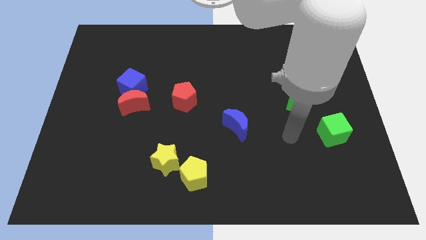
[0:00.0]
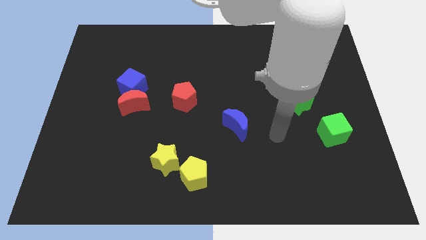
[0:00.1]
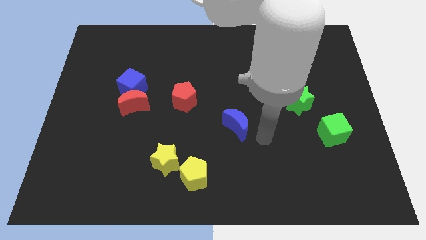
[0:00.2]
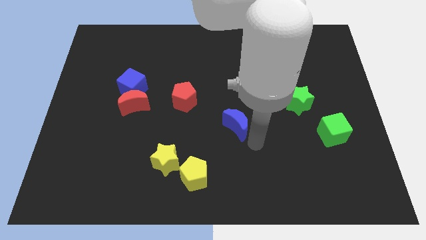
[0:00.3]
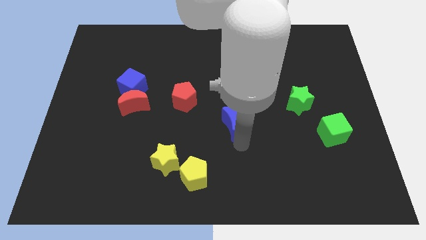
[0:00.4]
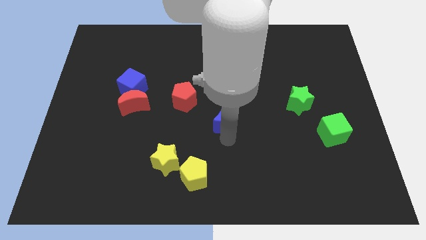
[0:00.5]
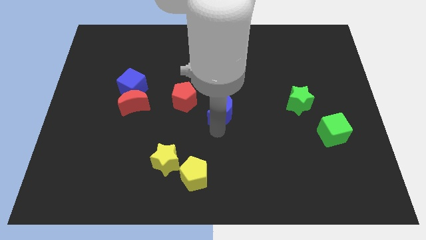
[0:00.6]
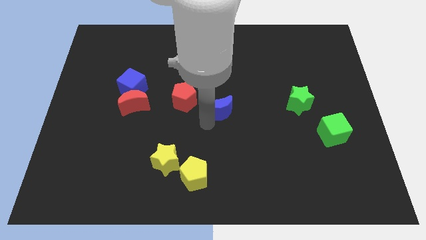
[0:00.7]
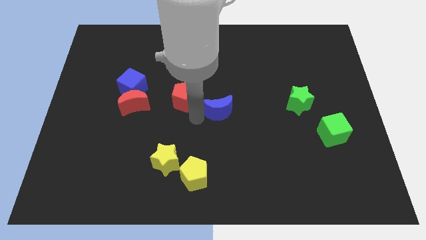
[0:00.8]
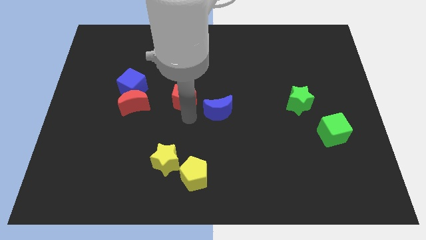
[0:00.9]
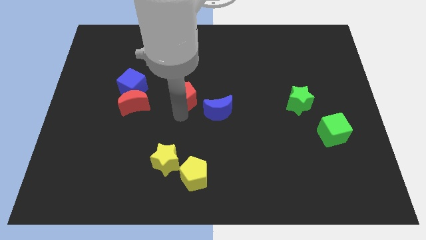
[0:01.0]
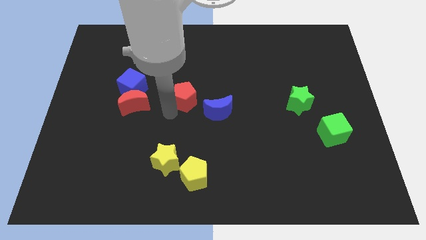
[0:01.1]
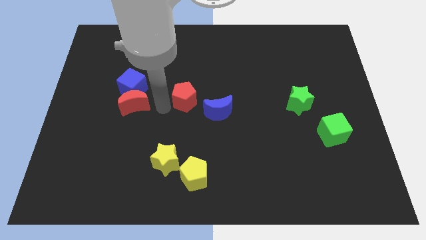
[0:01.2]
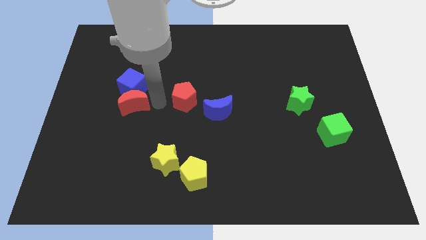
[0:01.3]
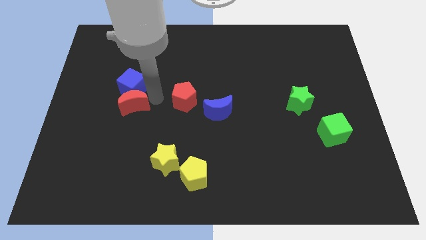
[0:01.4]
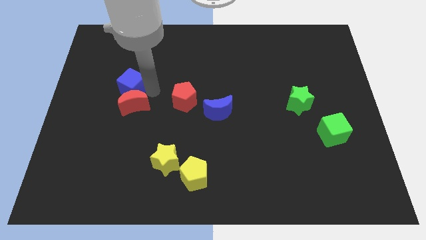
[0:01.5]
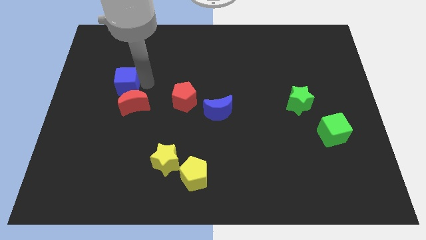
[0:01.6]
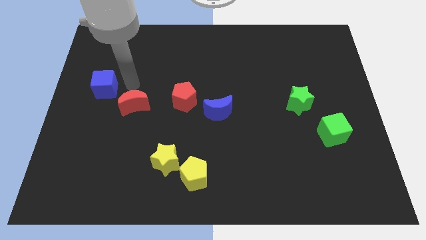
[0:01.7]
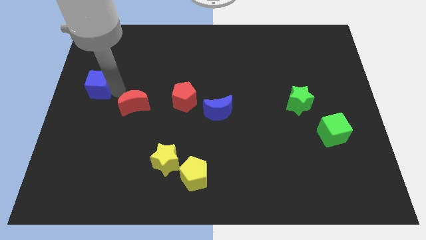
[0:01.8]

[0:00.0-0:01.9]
separate the red moon from the blue cube

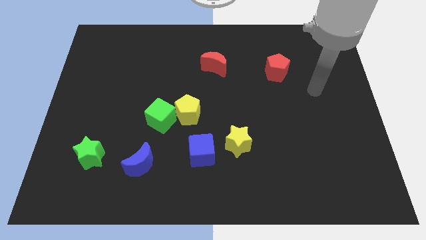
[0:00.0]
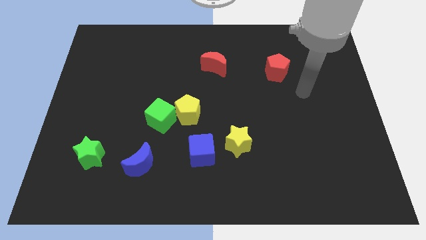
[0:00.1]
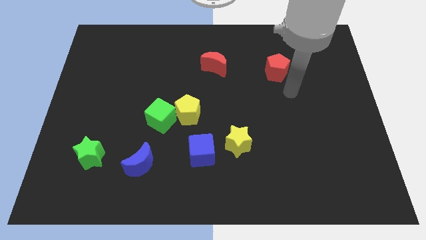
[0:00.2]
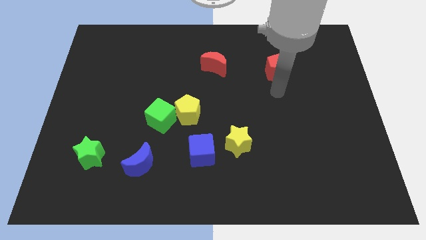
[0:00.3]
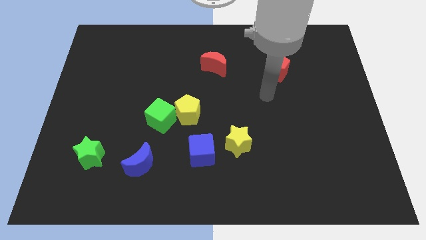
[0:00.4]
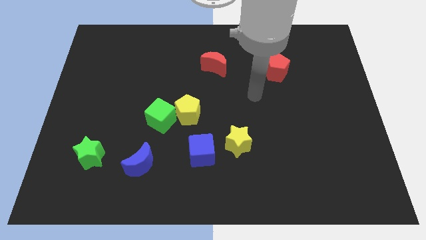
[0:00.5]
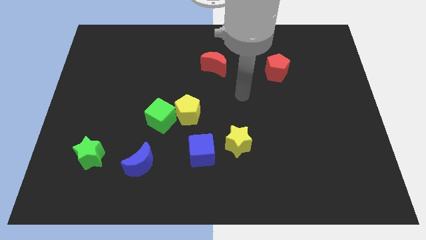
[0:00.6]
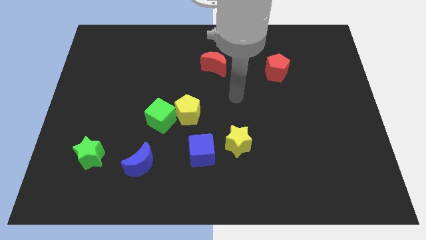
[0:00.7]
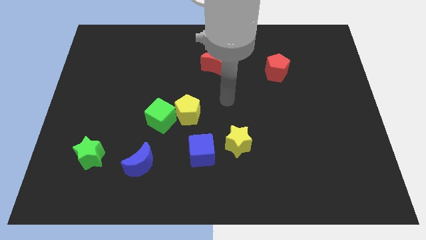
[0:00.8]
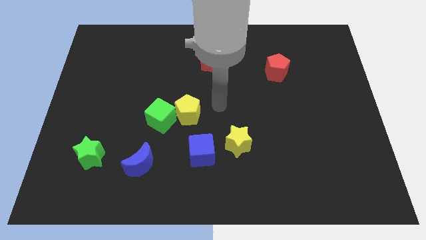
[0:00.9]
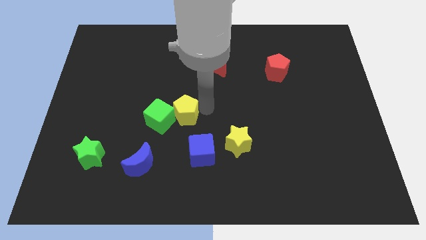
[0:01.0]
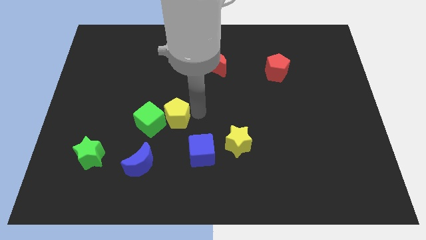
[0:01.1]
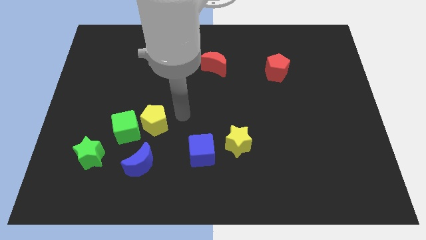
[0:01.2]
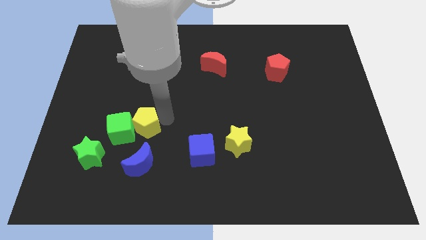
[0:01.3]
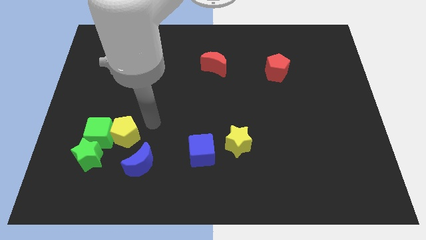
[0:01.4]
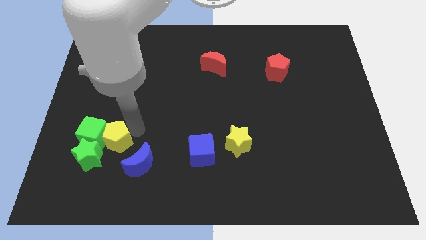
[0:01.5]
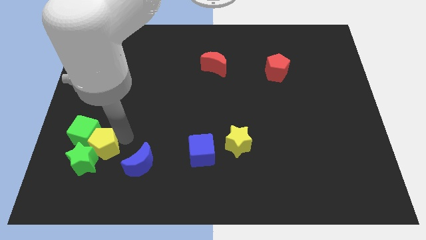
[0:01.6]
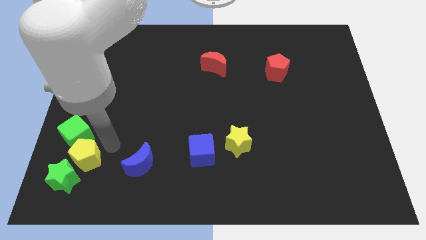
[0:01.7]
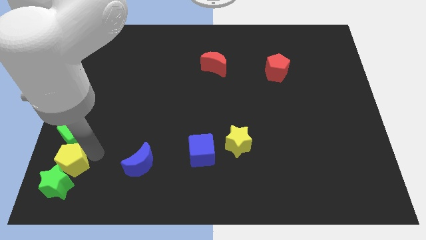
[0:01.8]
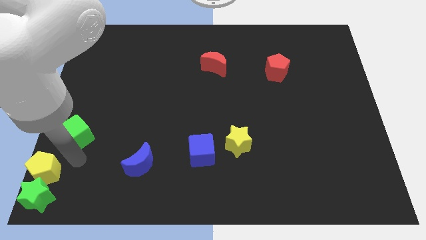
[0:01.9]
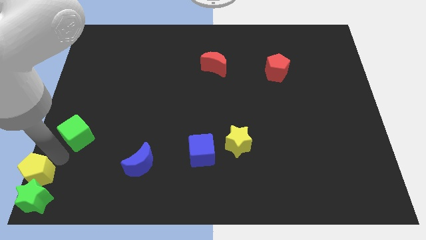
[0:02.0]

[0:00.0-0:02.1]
pull the green cube apart from the yellow pentagon

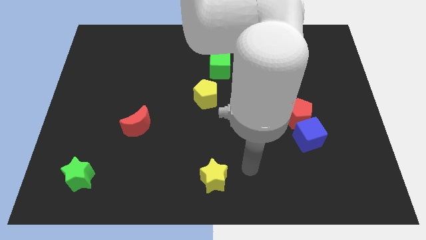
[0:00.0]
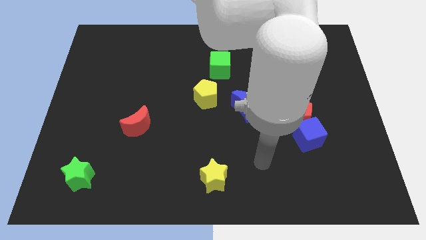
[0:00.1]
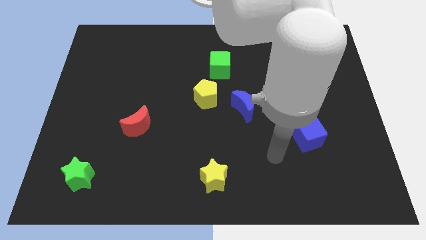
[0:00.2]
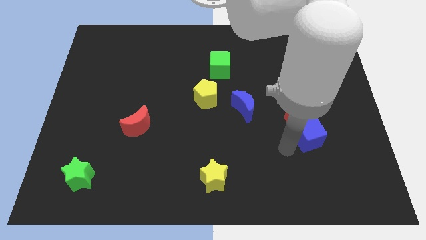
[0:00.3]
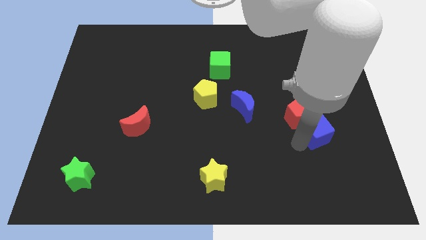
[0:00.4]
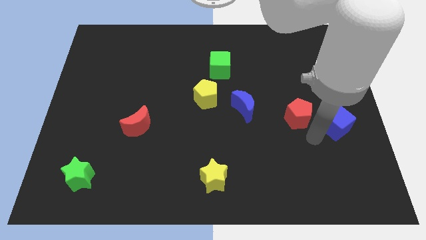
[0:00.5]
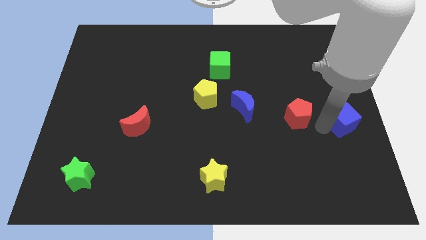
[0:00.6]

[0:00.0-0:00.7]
separate the red pentagon from the blue cube

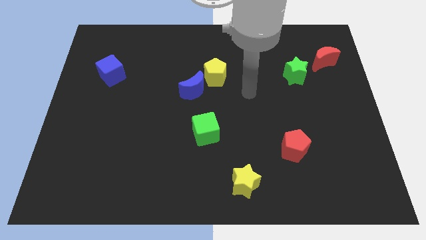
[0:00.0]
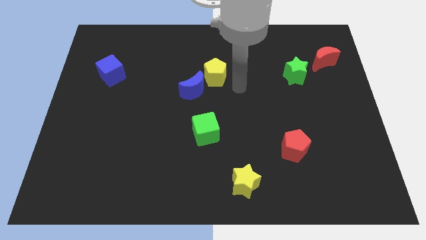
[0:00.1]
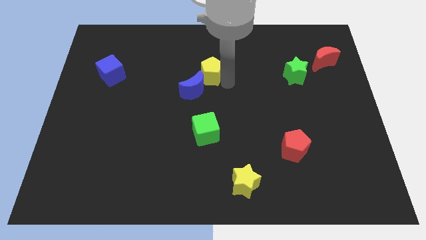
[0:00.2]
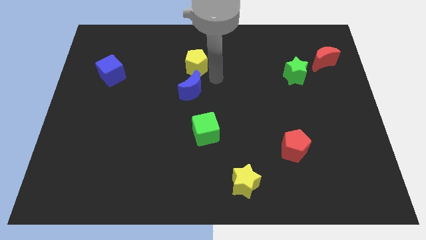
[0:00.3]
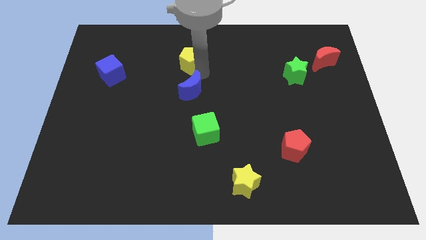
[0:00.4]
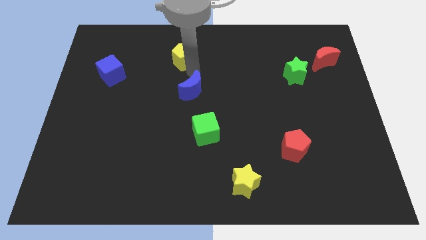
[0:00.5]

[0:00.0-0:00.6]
separate the blue moon from the yellow pentagon

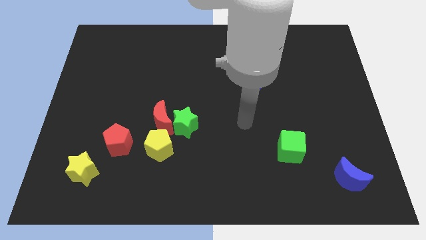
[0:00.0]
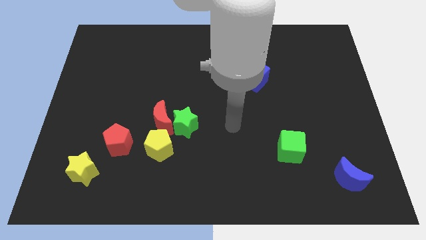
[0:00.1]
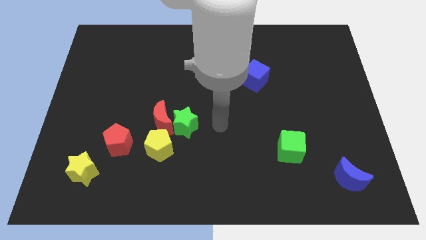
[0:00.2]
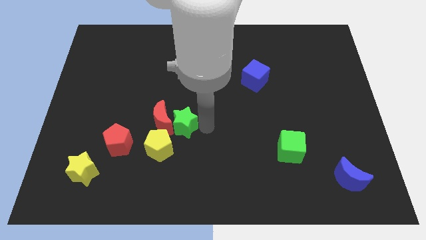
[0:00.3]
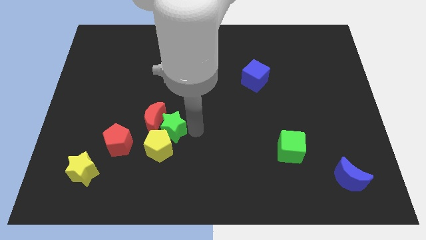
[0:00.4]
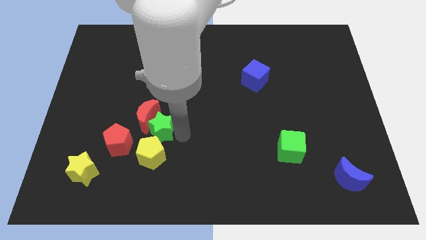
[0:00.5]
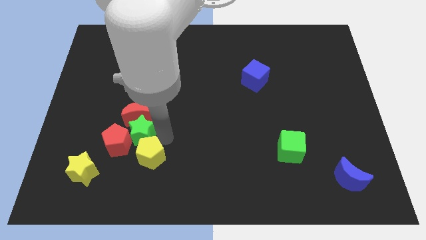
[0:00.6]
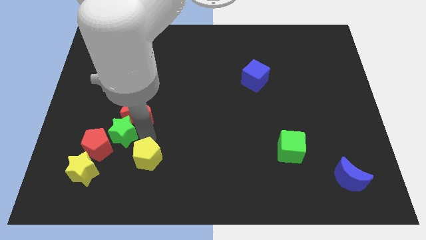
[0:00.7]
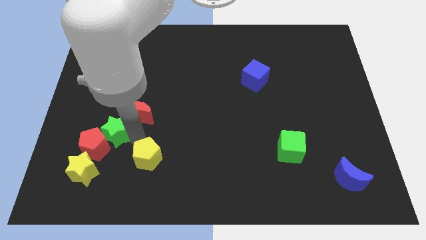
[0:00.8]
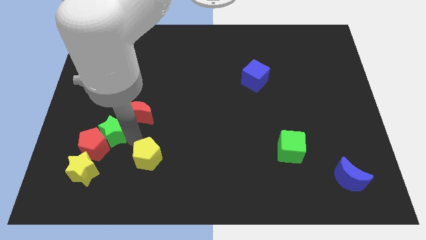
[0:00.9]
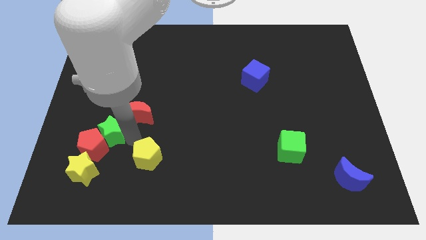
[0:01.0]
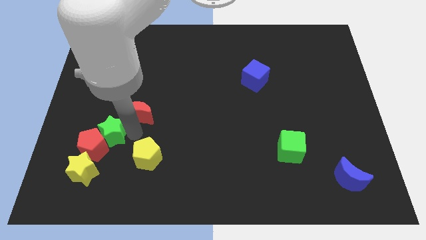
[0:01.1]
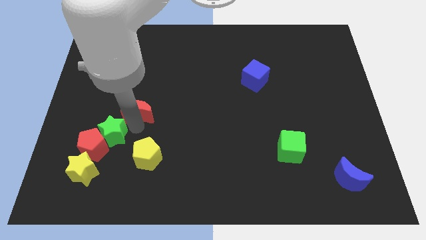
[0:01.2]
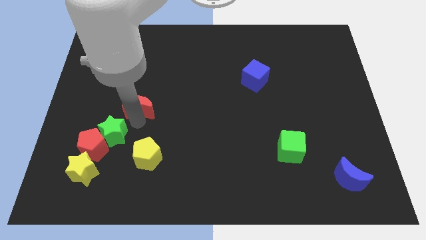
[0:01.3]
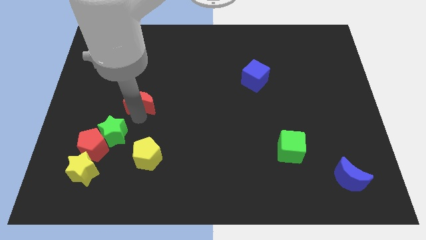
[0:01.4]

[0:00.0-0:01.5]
pull the red moon apart from the green star and yellow pentagon

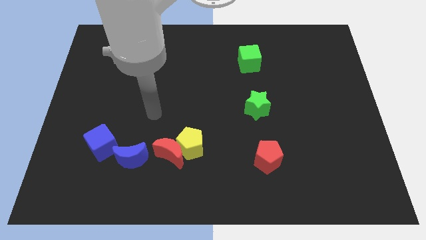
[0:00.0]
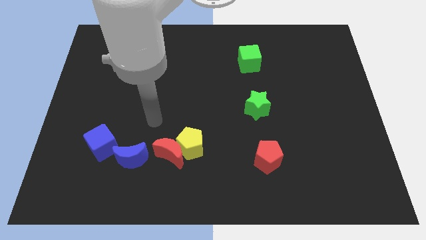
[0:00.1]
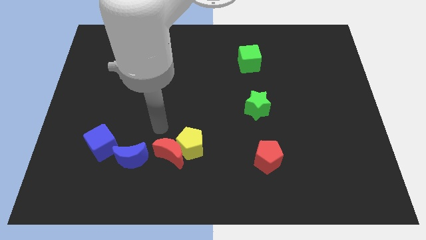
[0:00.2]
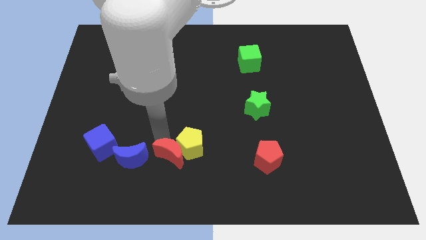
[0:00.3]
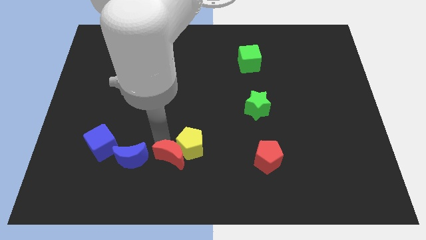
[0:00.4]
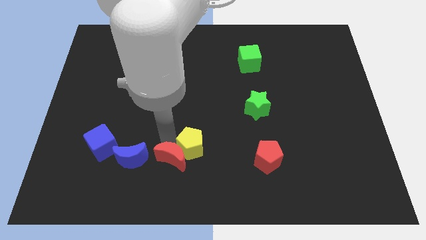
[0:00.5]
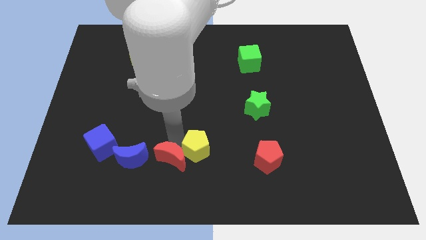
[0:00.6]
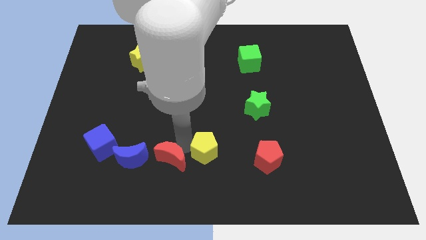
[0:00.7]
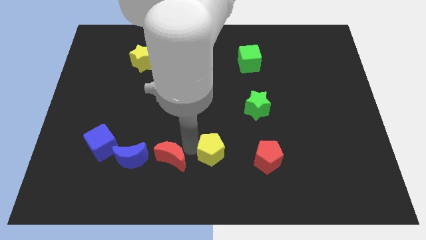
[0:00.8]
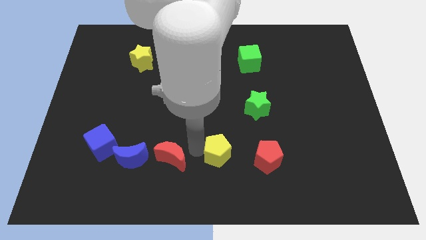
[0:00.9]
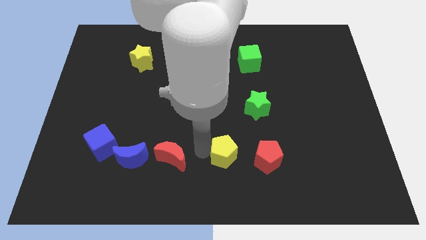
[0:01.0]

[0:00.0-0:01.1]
move the yellow pentagon away from the red moon

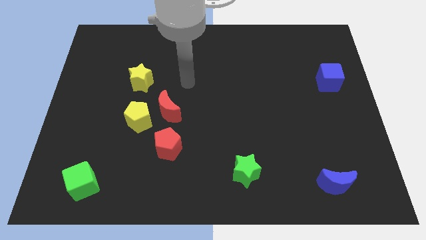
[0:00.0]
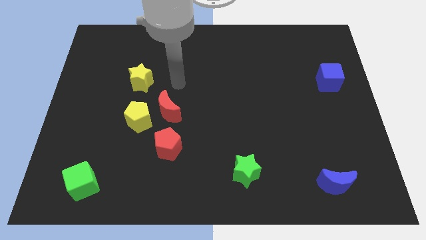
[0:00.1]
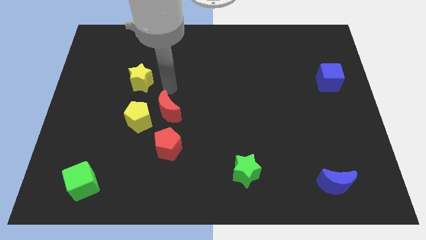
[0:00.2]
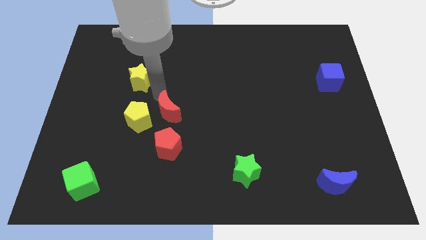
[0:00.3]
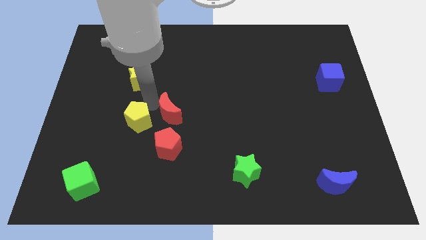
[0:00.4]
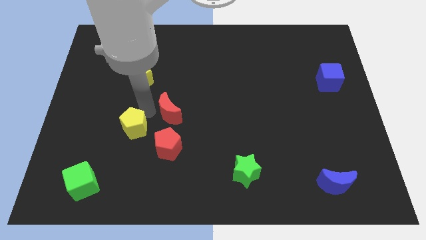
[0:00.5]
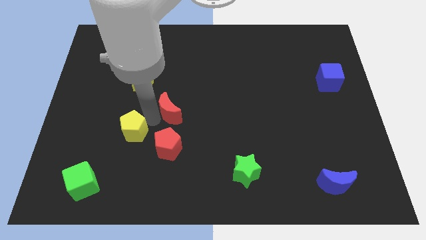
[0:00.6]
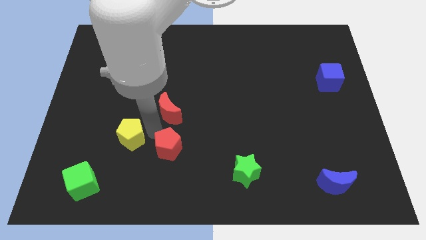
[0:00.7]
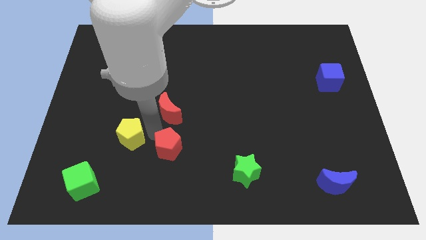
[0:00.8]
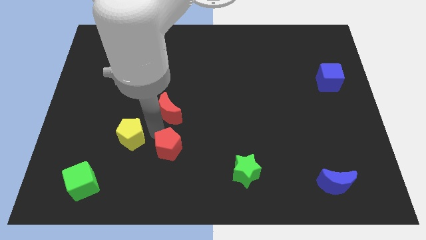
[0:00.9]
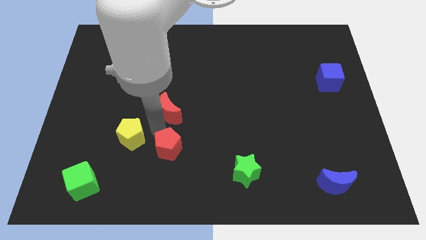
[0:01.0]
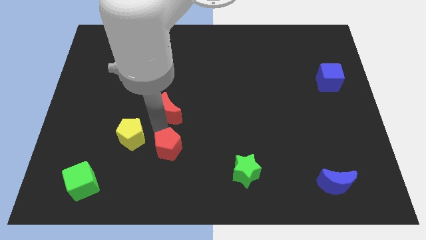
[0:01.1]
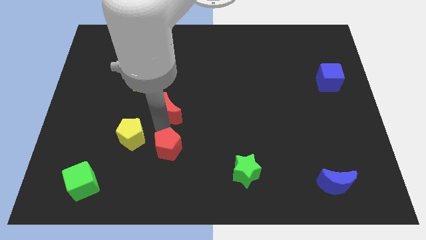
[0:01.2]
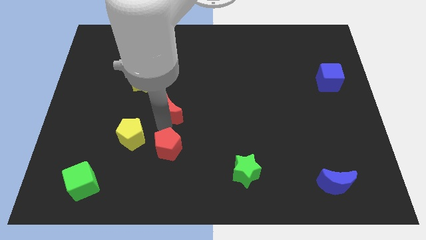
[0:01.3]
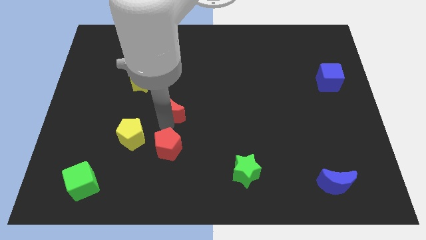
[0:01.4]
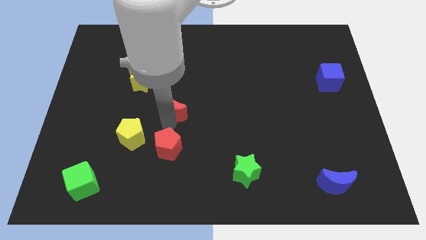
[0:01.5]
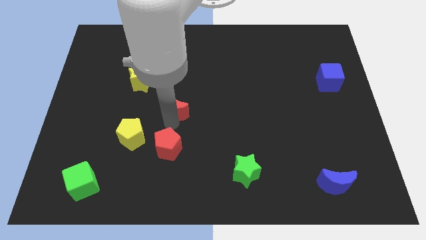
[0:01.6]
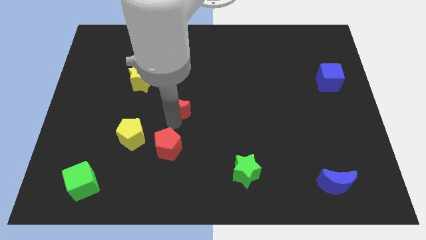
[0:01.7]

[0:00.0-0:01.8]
pull the red moon apart from the yellow pentagon and red pentagon
